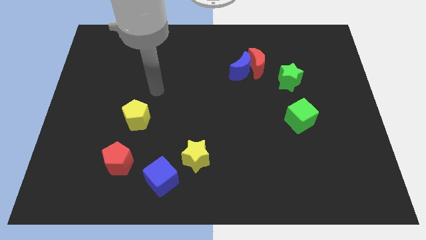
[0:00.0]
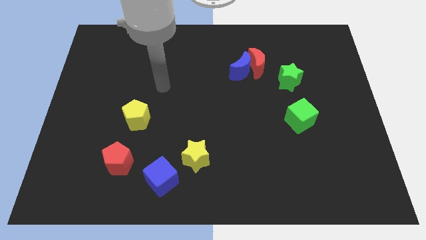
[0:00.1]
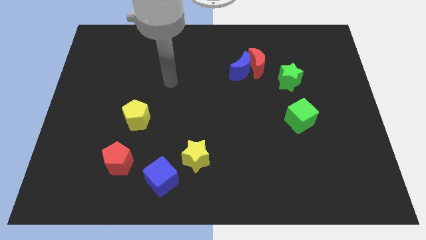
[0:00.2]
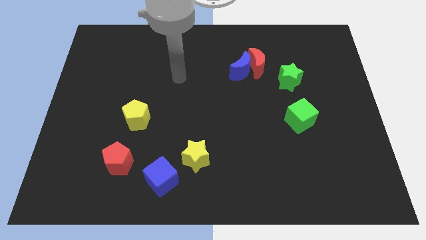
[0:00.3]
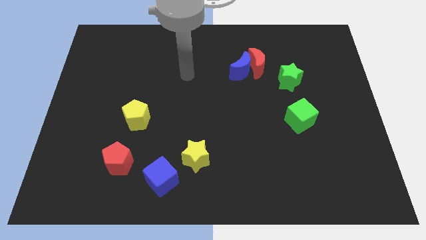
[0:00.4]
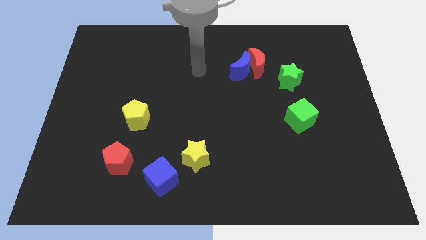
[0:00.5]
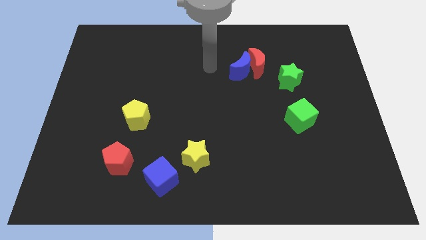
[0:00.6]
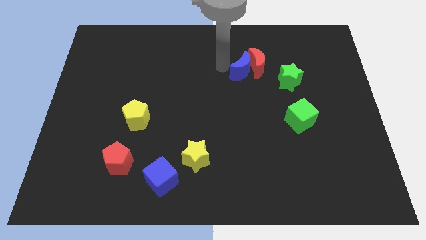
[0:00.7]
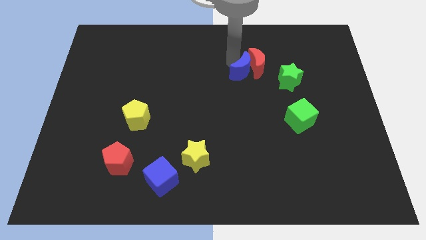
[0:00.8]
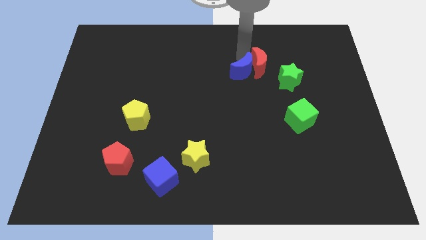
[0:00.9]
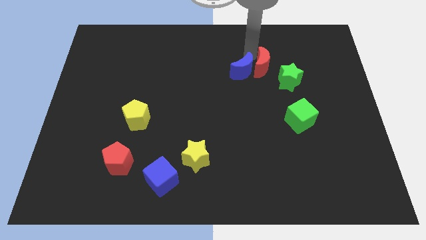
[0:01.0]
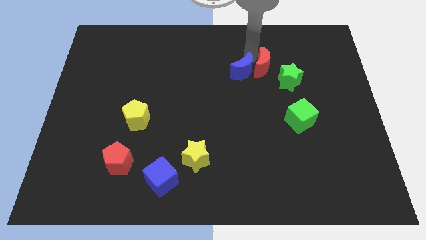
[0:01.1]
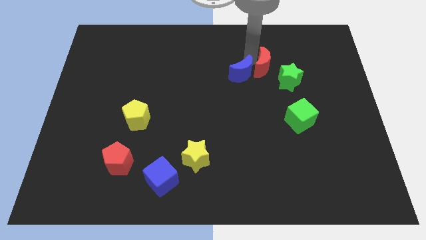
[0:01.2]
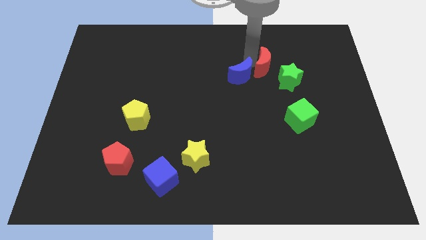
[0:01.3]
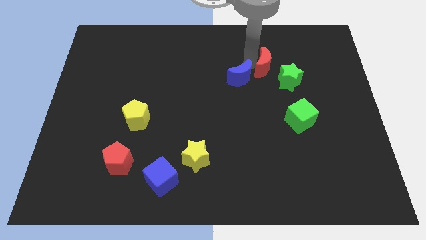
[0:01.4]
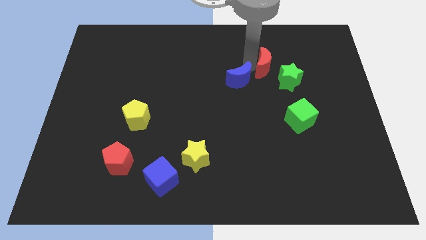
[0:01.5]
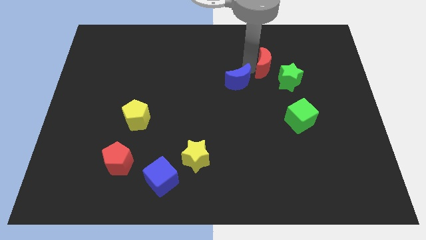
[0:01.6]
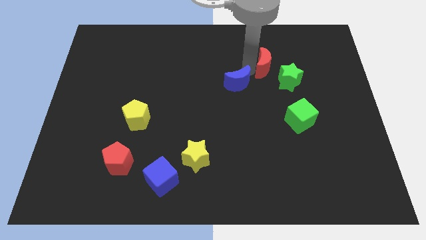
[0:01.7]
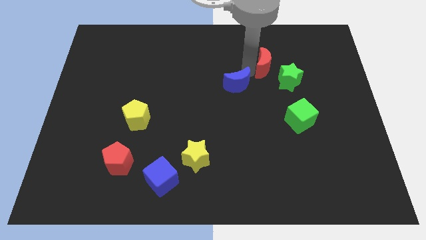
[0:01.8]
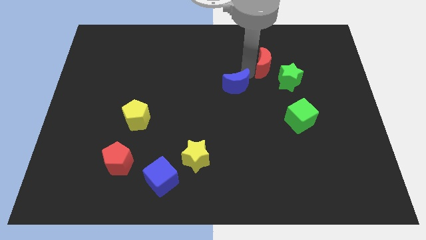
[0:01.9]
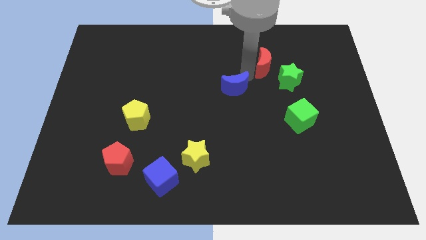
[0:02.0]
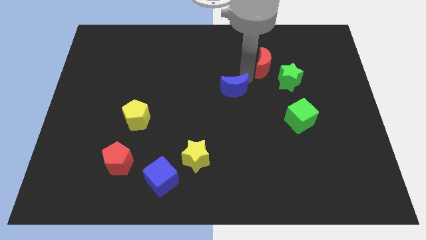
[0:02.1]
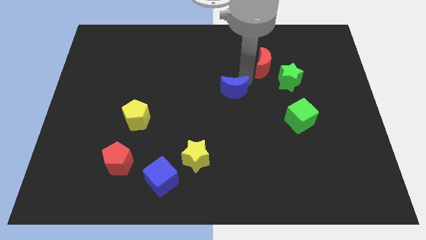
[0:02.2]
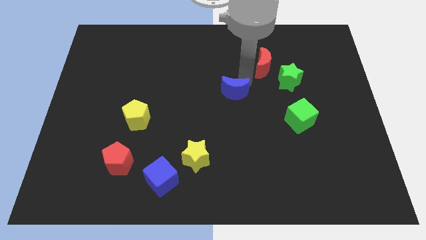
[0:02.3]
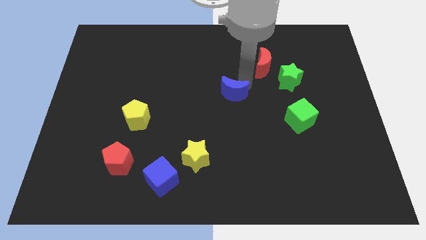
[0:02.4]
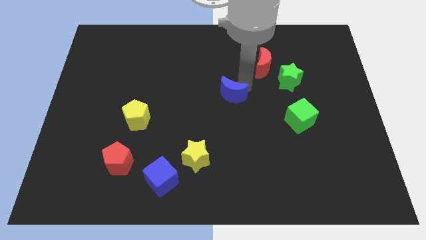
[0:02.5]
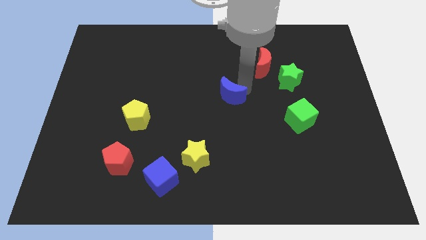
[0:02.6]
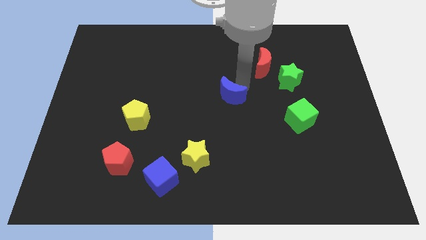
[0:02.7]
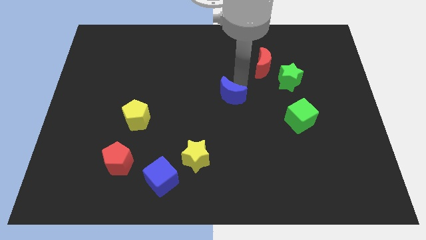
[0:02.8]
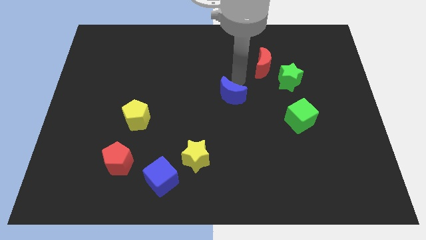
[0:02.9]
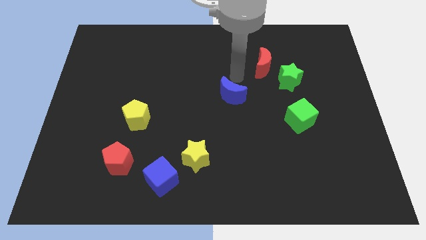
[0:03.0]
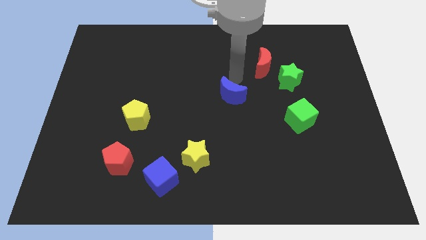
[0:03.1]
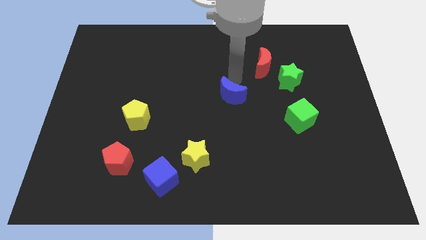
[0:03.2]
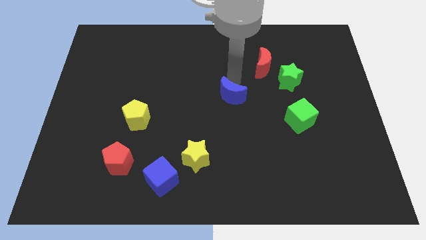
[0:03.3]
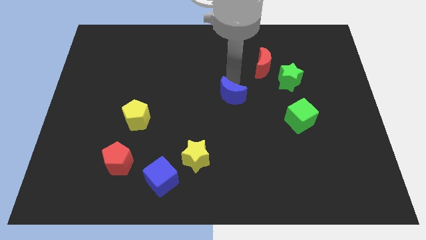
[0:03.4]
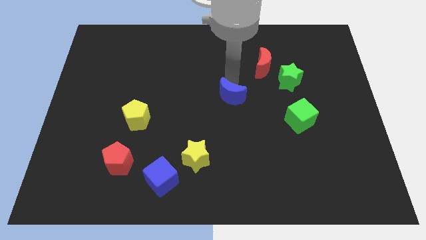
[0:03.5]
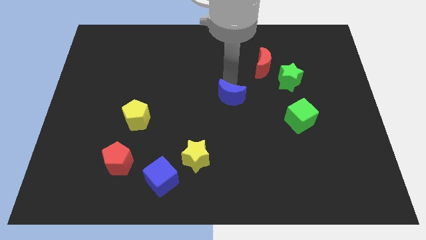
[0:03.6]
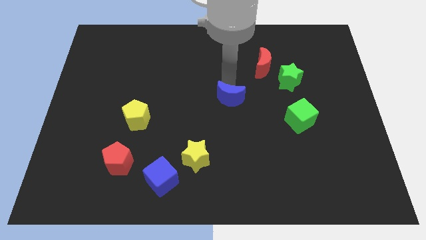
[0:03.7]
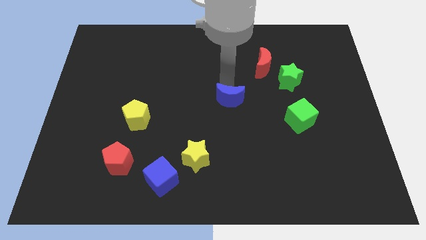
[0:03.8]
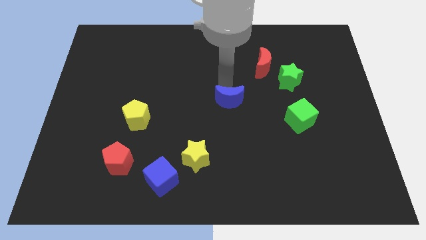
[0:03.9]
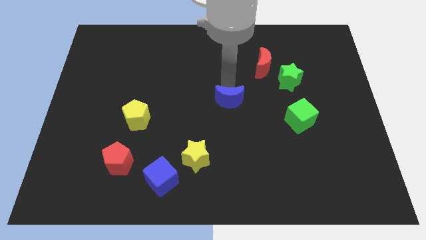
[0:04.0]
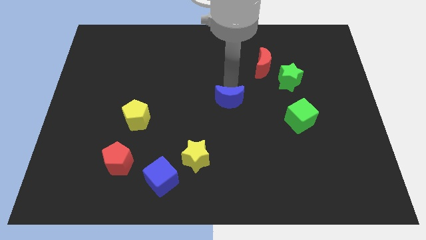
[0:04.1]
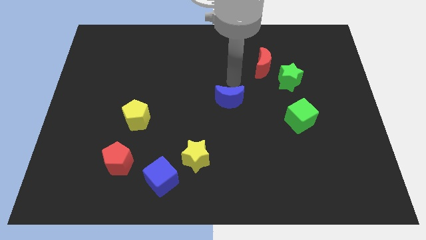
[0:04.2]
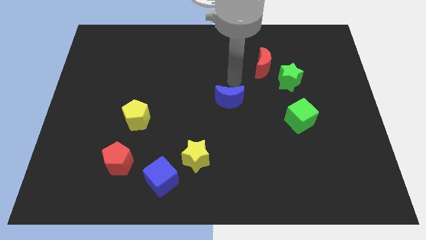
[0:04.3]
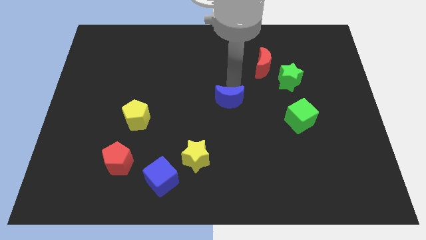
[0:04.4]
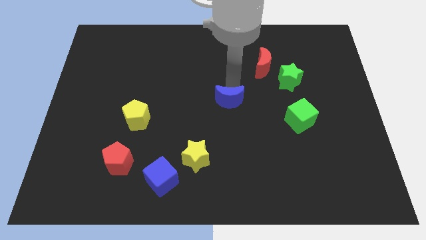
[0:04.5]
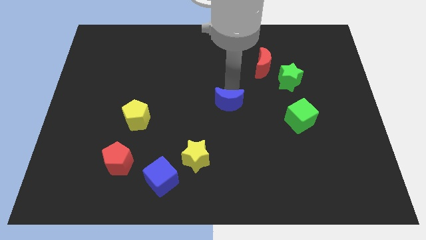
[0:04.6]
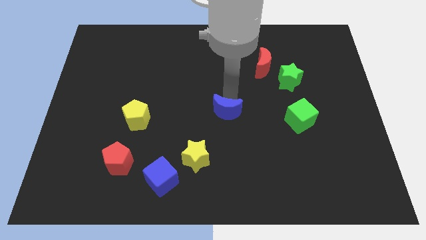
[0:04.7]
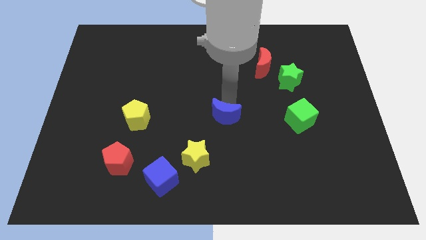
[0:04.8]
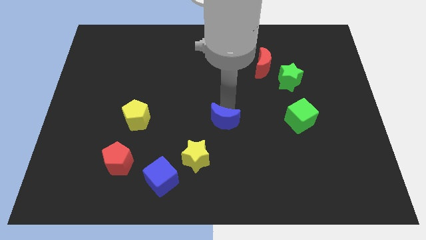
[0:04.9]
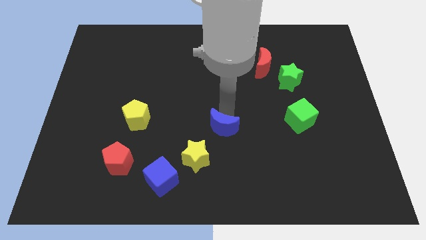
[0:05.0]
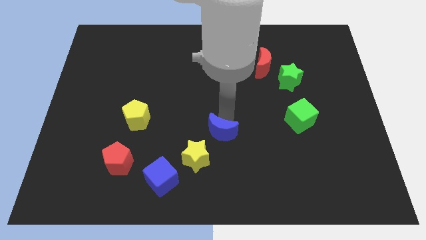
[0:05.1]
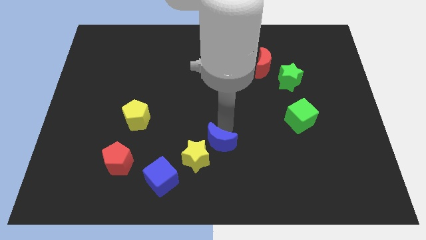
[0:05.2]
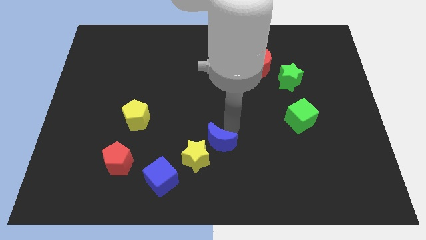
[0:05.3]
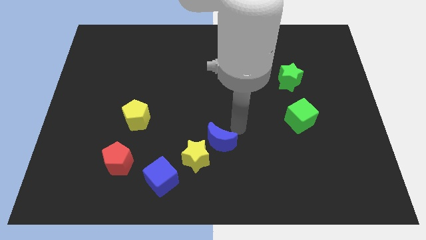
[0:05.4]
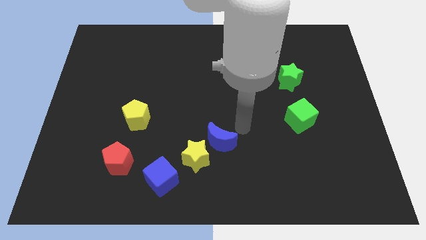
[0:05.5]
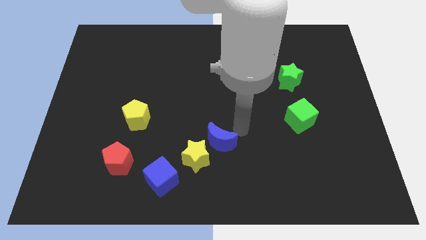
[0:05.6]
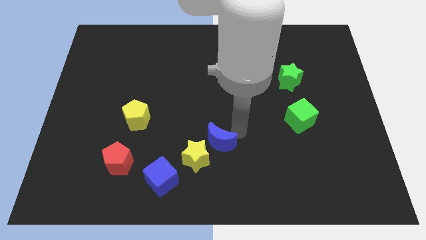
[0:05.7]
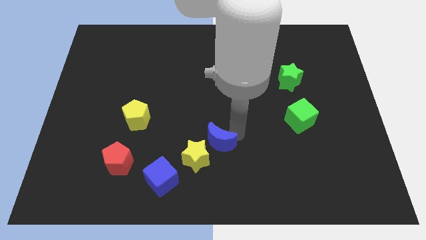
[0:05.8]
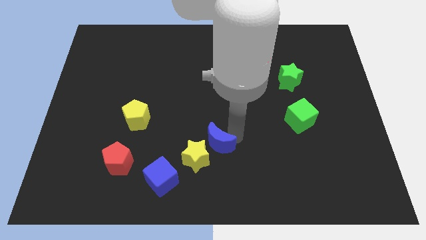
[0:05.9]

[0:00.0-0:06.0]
move the blue moon next to the yellow star

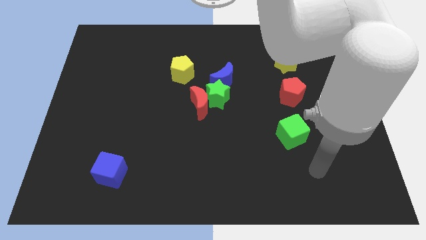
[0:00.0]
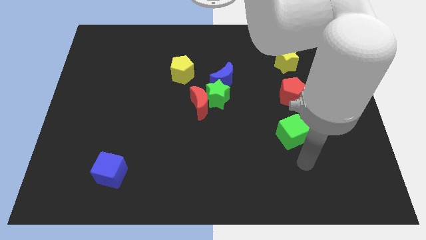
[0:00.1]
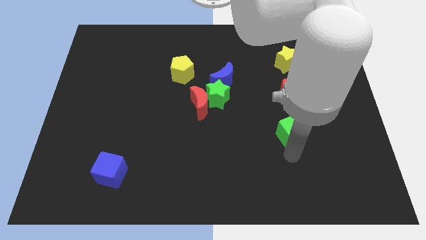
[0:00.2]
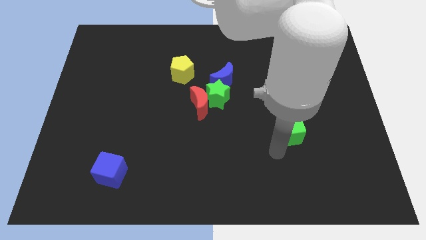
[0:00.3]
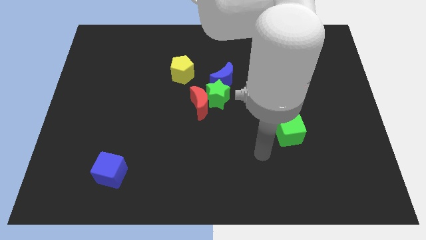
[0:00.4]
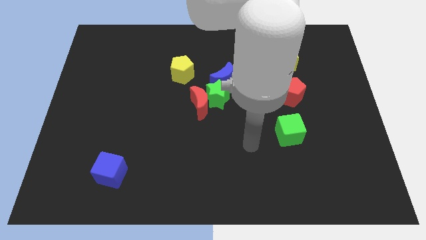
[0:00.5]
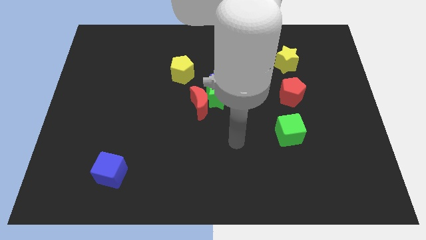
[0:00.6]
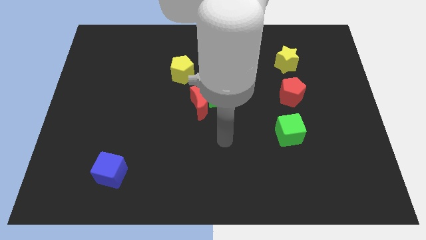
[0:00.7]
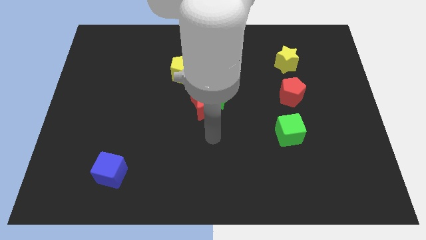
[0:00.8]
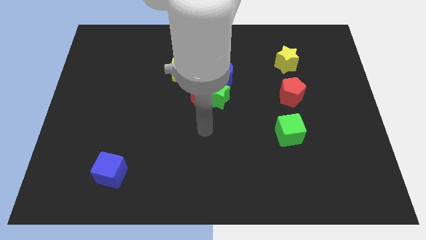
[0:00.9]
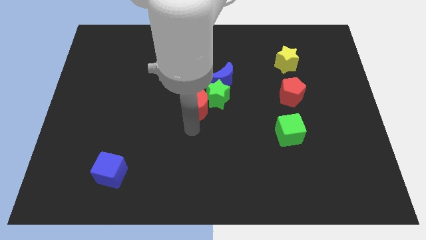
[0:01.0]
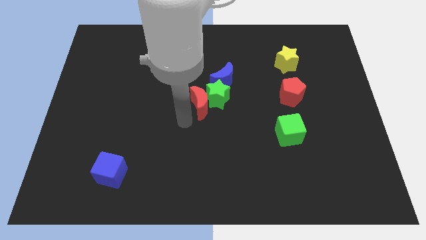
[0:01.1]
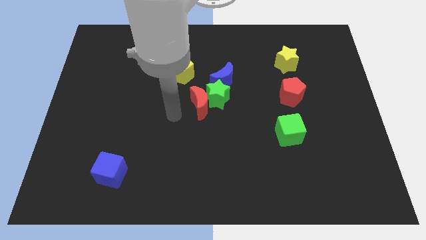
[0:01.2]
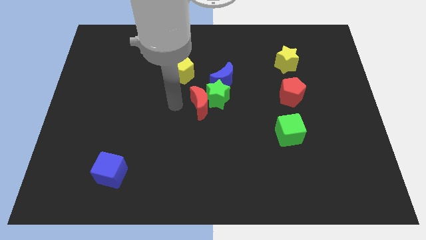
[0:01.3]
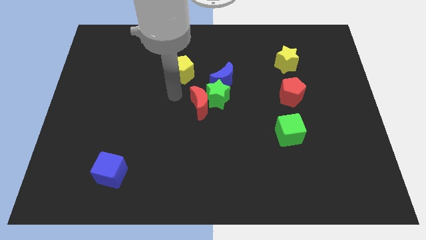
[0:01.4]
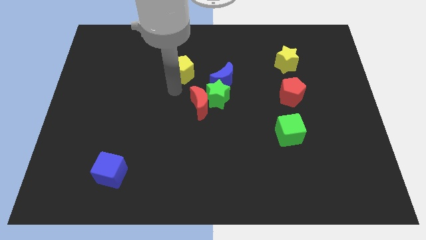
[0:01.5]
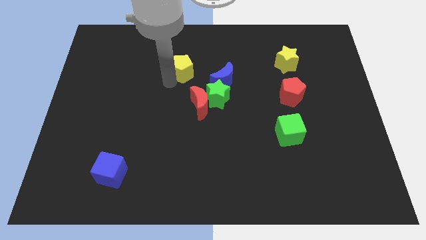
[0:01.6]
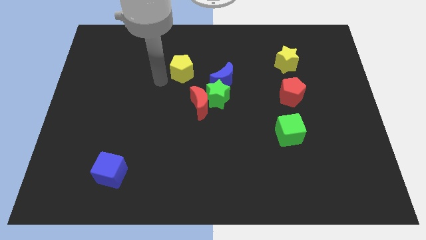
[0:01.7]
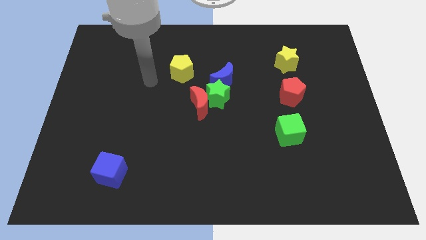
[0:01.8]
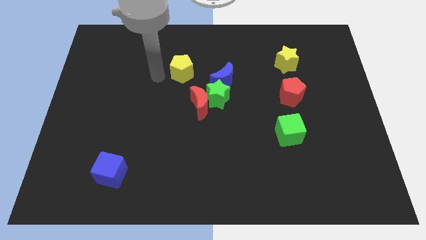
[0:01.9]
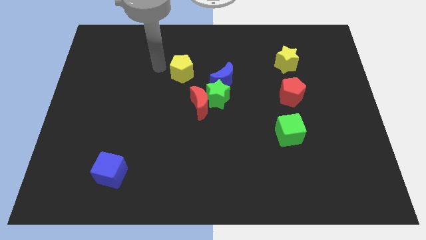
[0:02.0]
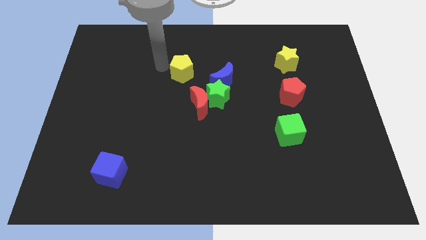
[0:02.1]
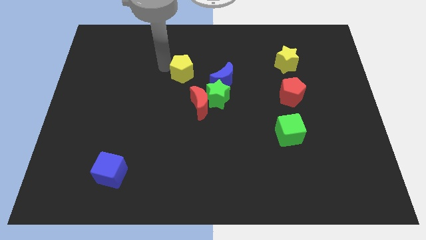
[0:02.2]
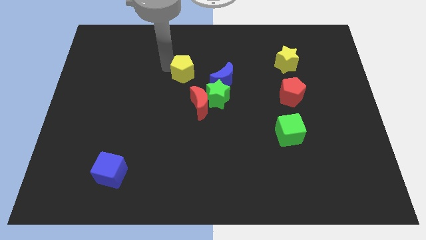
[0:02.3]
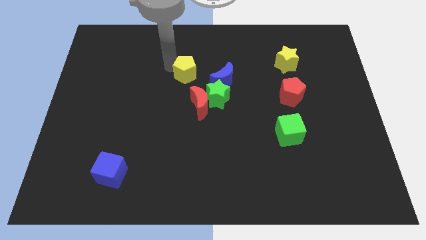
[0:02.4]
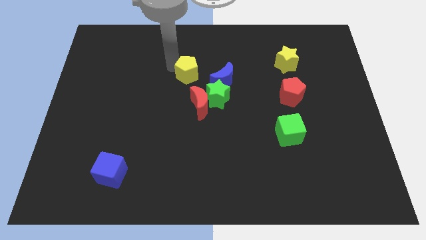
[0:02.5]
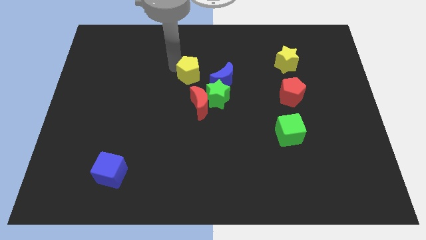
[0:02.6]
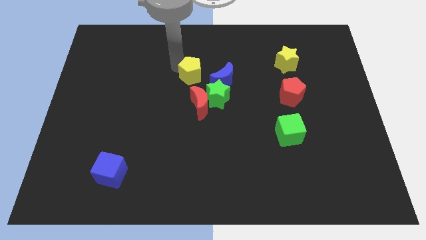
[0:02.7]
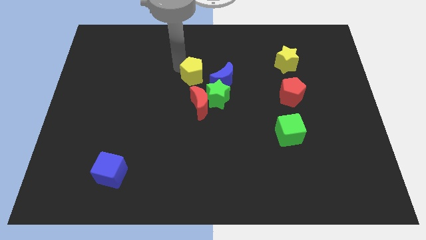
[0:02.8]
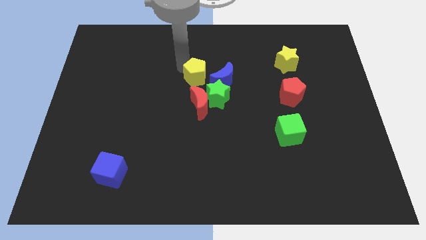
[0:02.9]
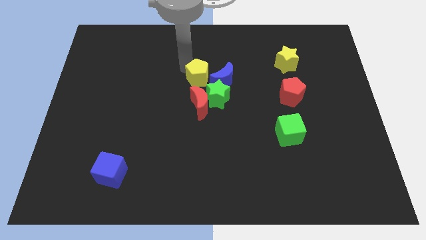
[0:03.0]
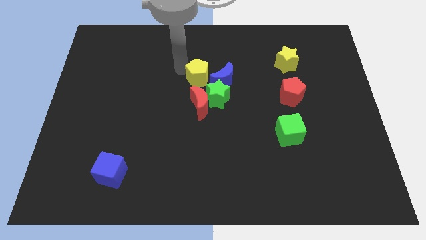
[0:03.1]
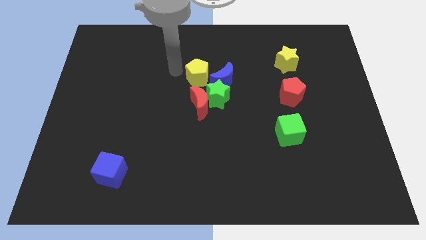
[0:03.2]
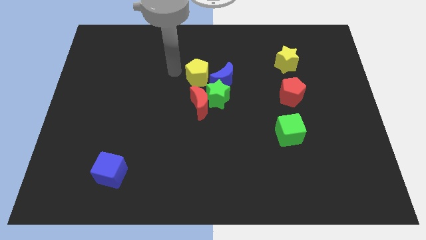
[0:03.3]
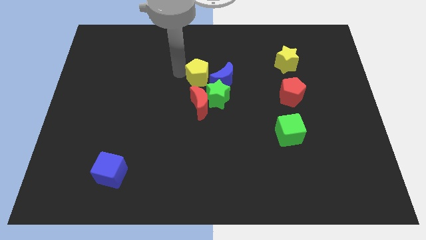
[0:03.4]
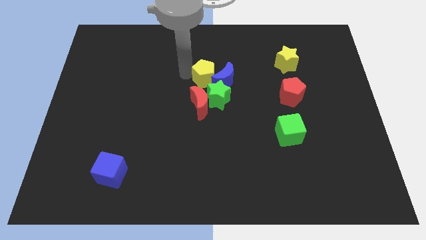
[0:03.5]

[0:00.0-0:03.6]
move the yellow pentagon close to the blue moon
